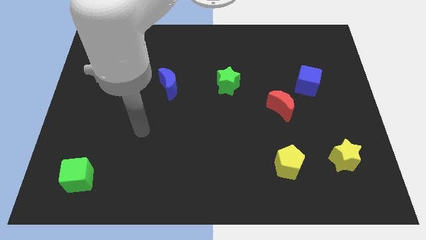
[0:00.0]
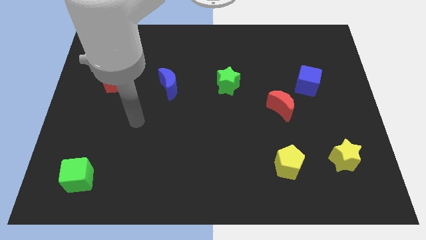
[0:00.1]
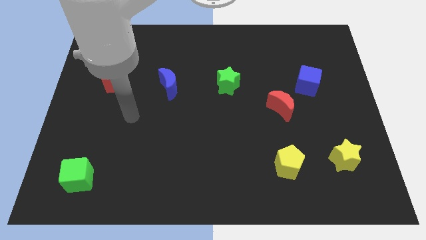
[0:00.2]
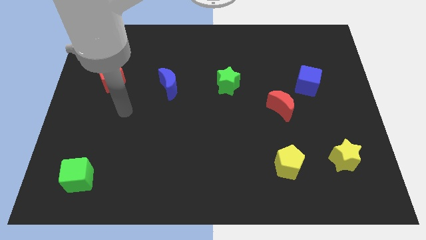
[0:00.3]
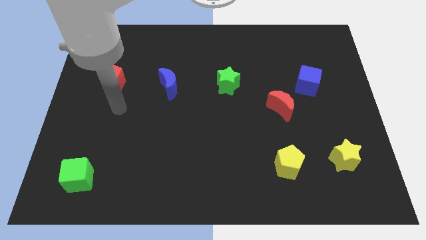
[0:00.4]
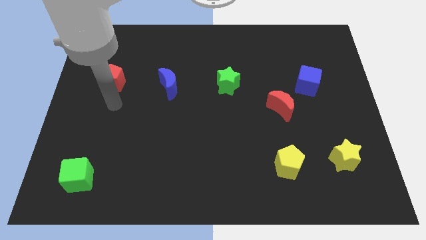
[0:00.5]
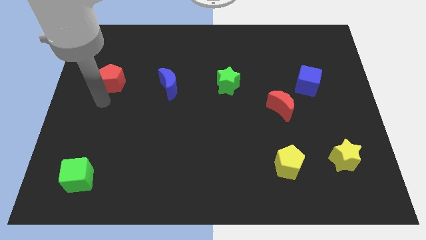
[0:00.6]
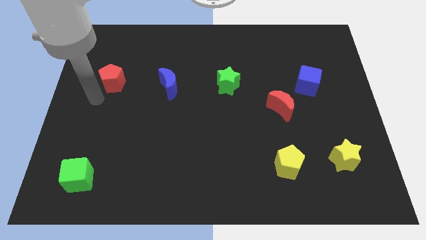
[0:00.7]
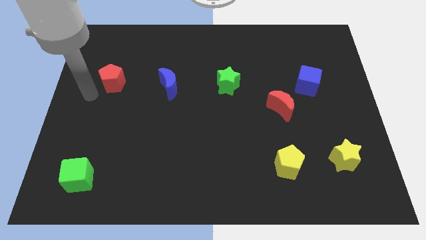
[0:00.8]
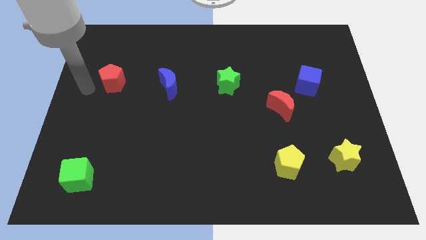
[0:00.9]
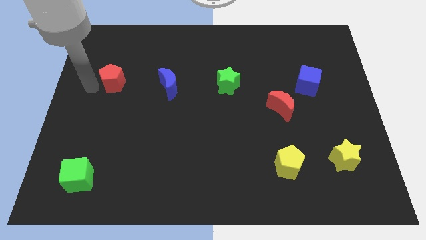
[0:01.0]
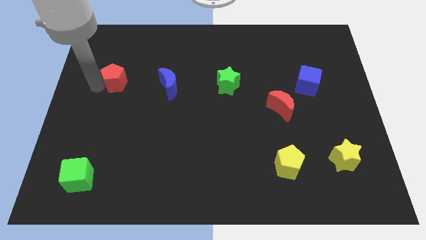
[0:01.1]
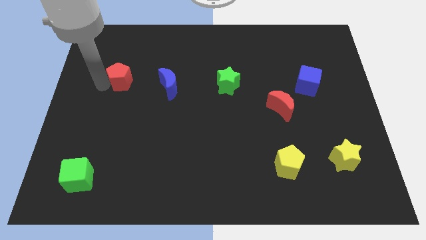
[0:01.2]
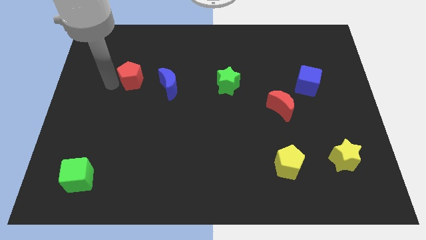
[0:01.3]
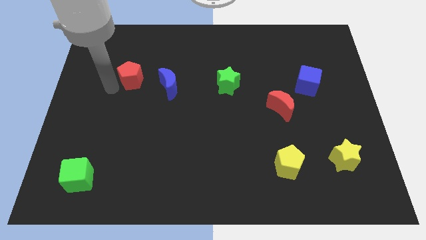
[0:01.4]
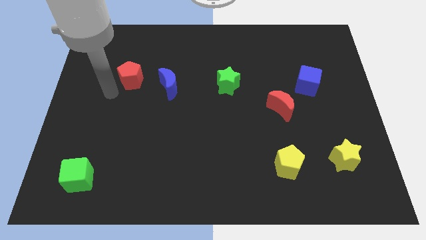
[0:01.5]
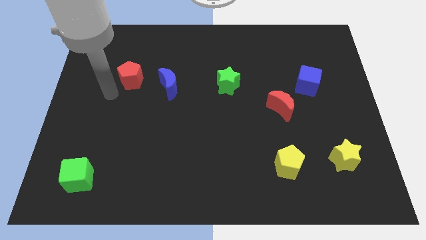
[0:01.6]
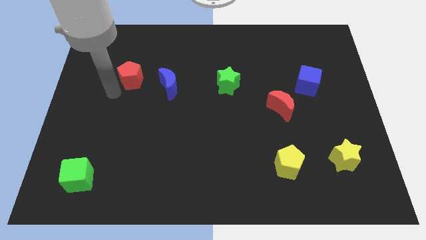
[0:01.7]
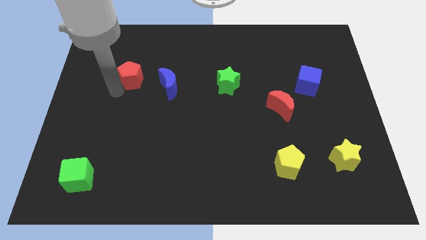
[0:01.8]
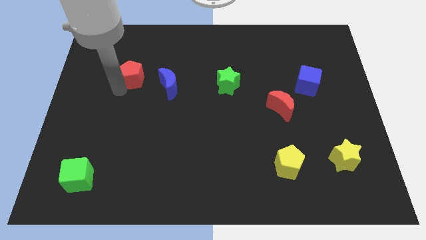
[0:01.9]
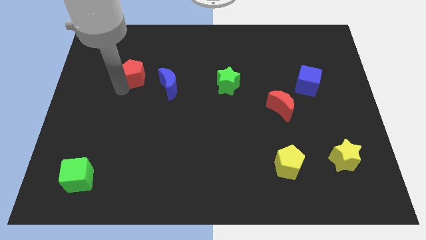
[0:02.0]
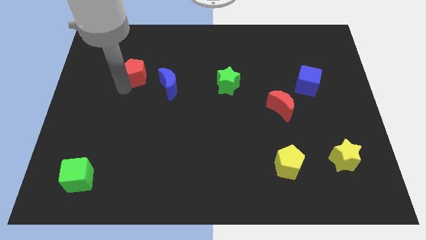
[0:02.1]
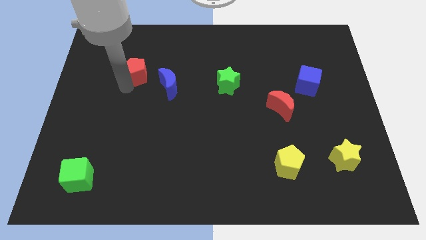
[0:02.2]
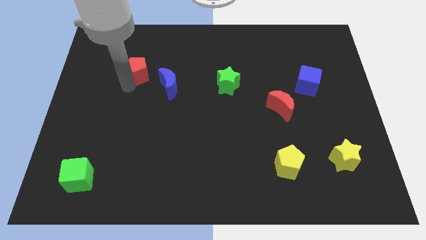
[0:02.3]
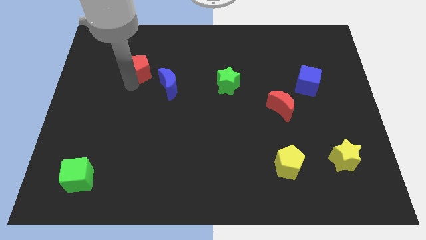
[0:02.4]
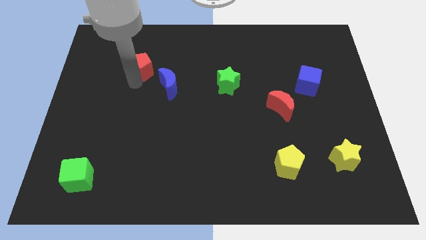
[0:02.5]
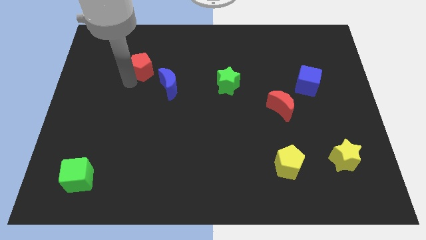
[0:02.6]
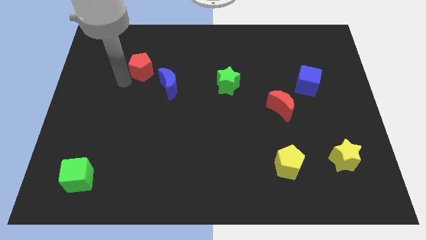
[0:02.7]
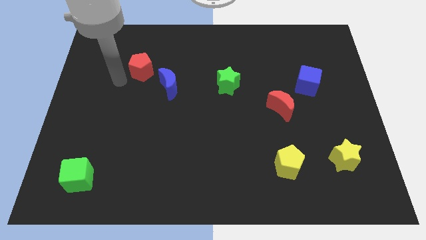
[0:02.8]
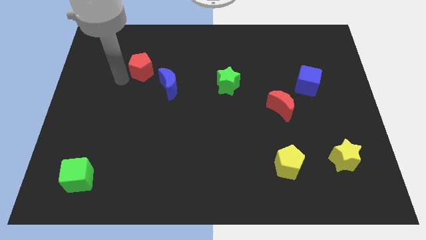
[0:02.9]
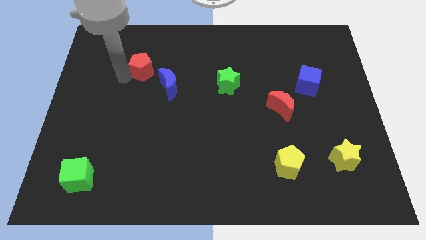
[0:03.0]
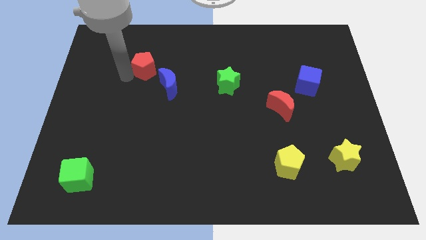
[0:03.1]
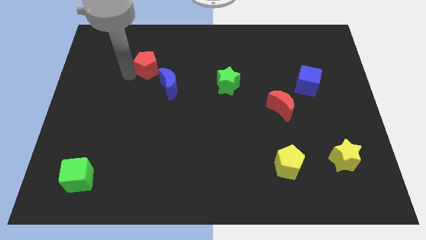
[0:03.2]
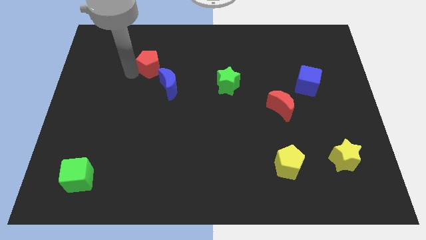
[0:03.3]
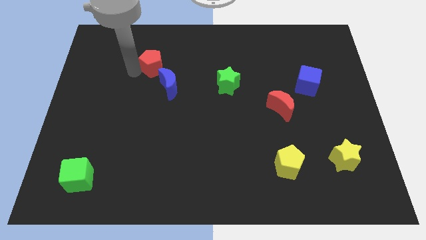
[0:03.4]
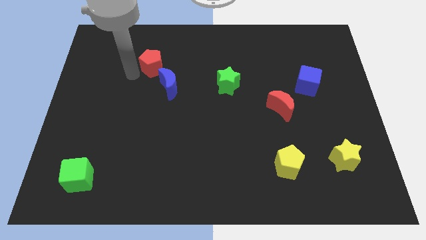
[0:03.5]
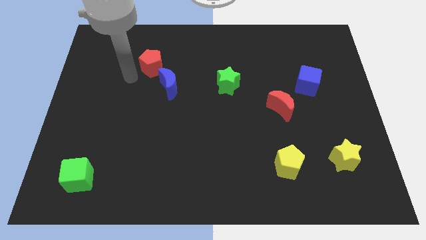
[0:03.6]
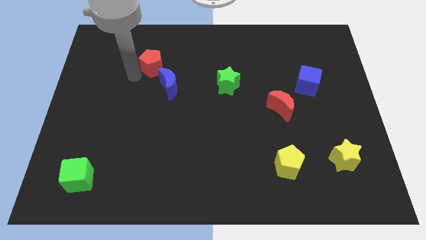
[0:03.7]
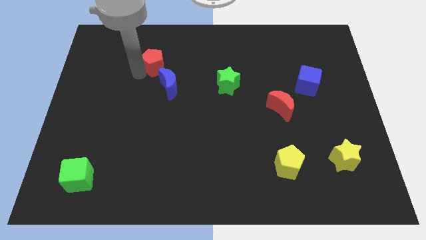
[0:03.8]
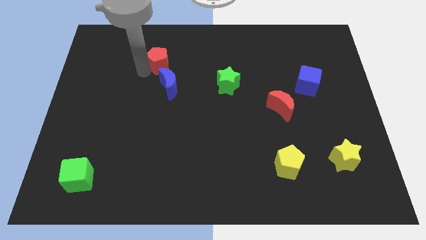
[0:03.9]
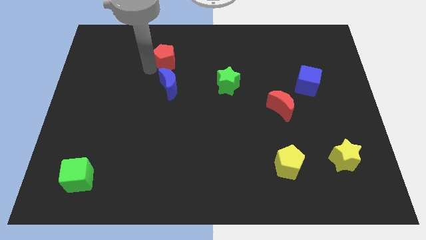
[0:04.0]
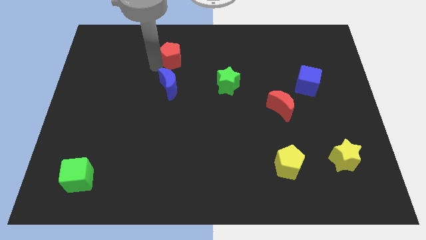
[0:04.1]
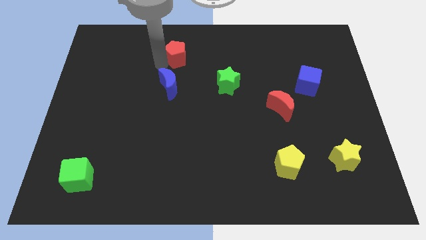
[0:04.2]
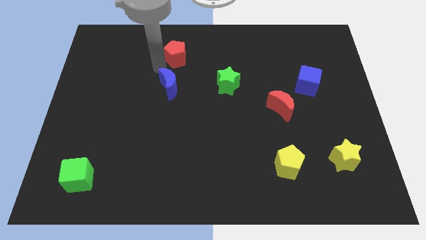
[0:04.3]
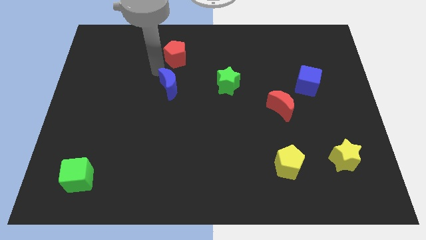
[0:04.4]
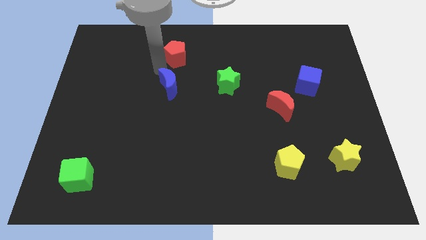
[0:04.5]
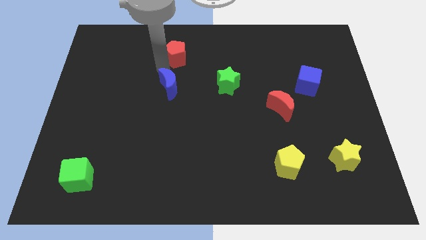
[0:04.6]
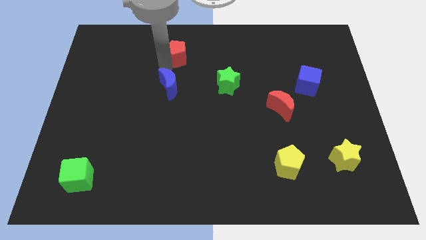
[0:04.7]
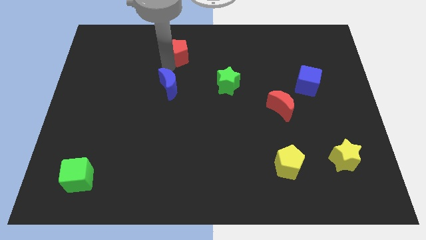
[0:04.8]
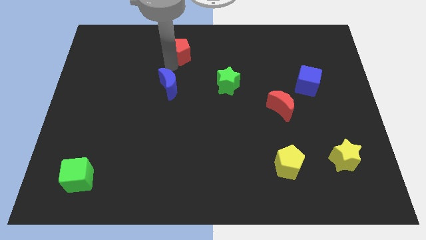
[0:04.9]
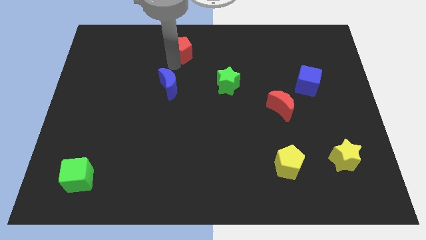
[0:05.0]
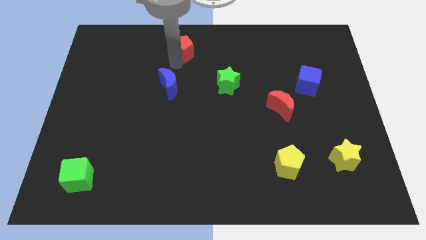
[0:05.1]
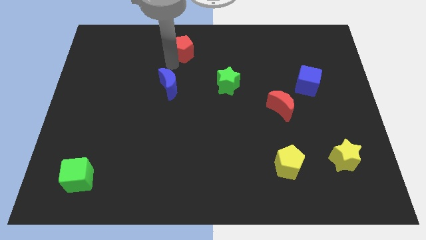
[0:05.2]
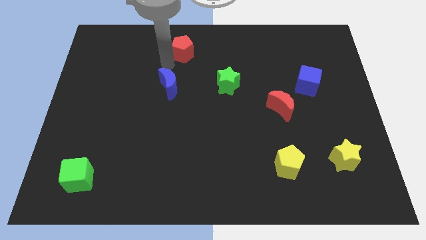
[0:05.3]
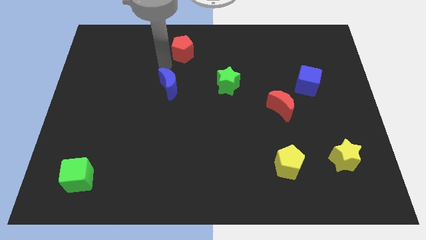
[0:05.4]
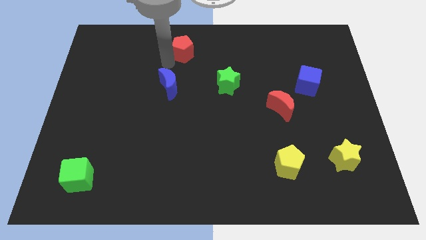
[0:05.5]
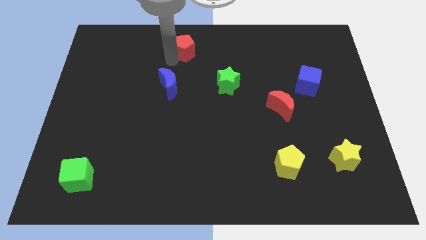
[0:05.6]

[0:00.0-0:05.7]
push the red pentagon to the top

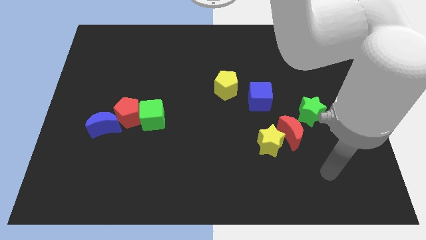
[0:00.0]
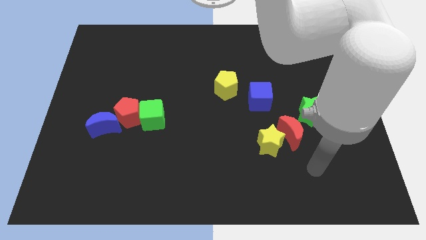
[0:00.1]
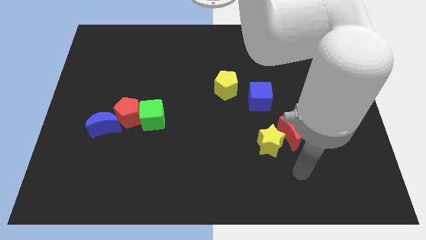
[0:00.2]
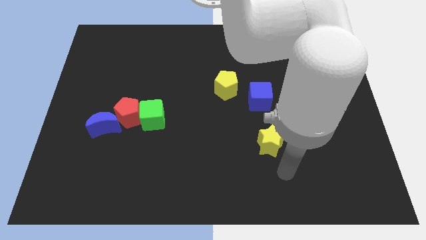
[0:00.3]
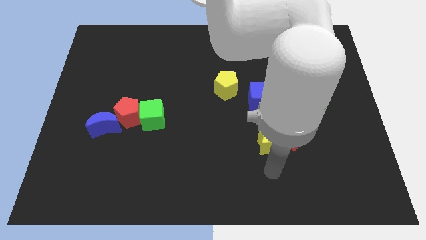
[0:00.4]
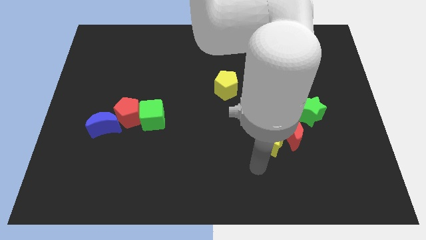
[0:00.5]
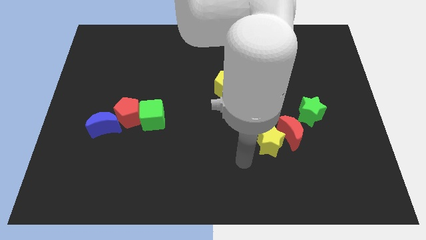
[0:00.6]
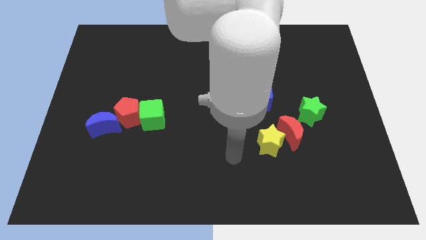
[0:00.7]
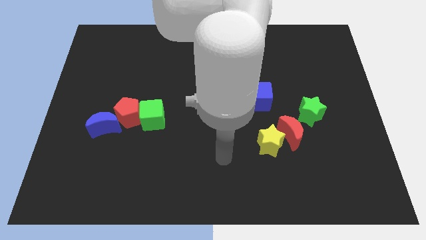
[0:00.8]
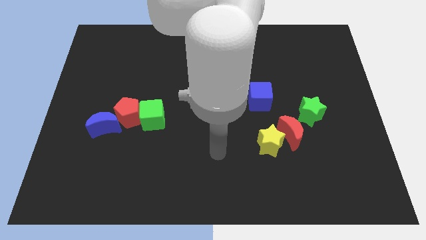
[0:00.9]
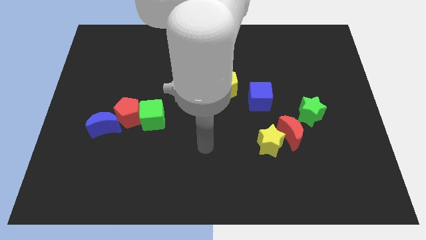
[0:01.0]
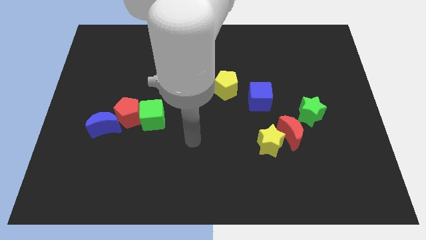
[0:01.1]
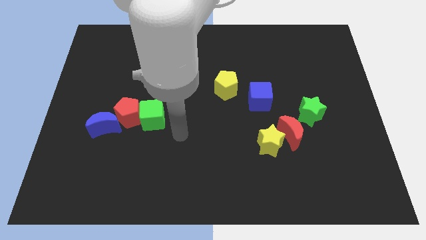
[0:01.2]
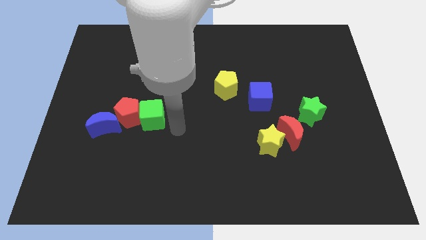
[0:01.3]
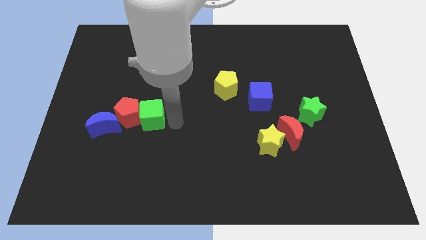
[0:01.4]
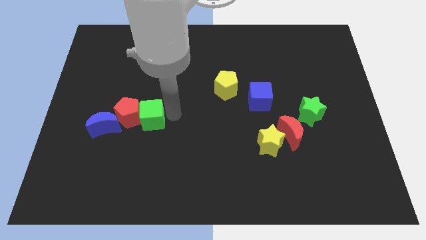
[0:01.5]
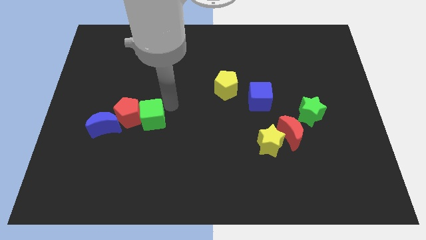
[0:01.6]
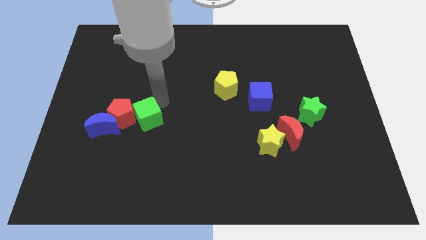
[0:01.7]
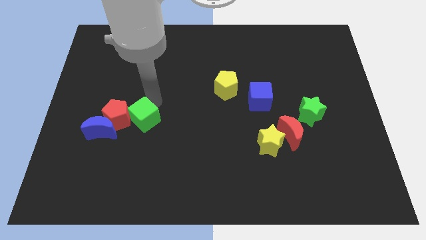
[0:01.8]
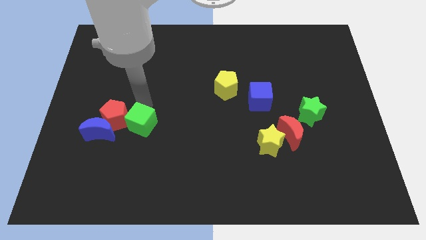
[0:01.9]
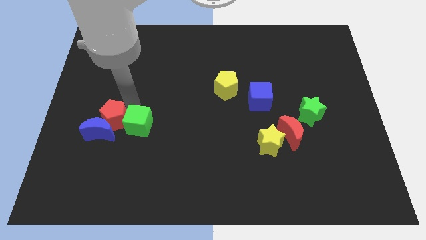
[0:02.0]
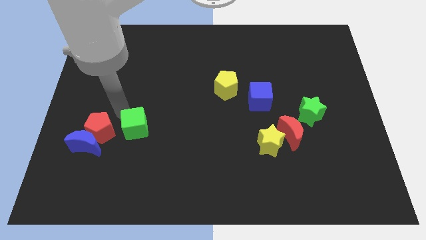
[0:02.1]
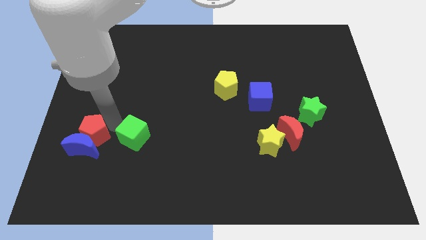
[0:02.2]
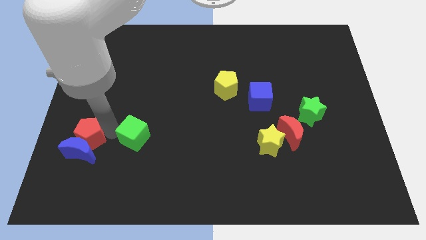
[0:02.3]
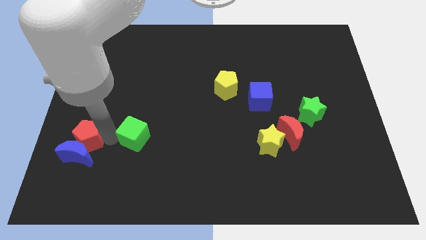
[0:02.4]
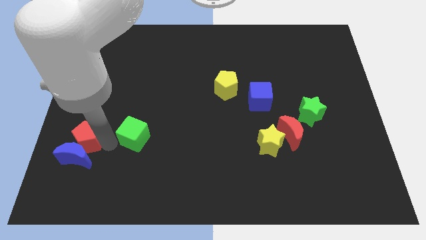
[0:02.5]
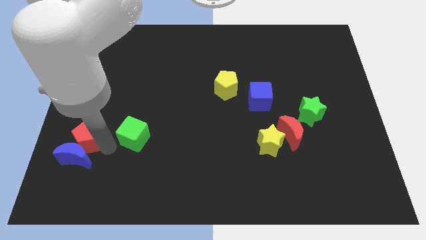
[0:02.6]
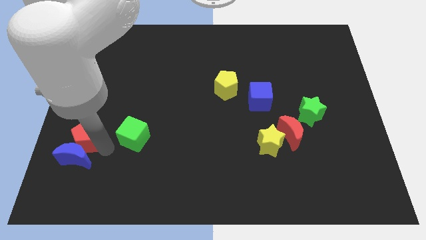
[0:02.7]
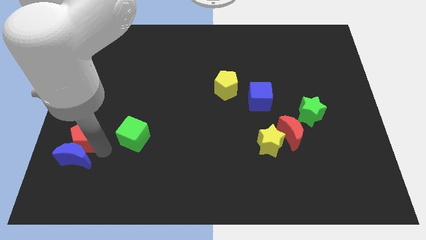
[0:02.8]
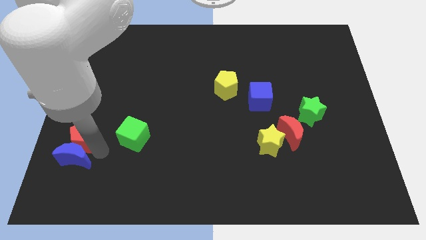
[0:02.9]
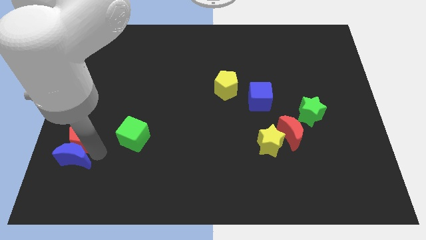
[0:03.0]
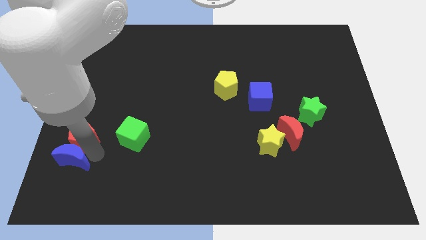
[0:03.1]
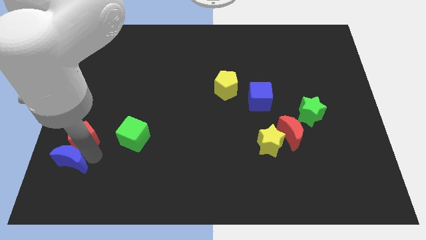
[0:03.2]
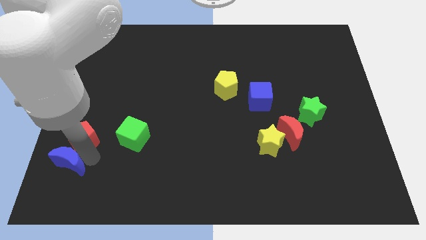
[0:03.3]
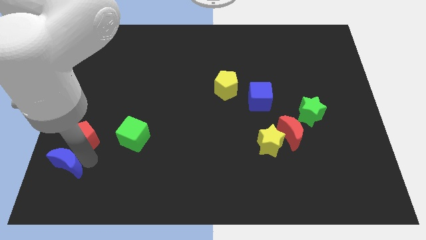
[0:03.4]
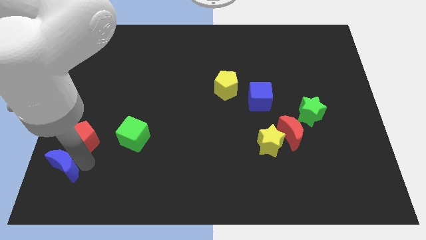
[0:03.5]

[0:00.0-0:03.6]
put the blue moon to the bottom left
